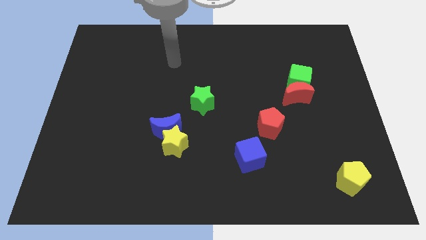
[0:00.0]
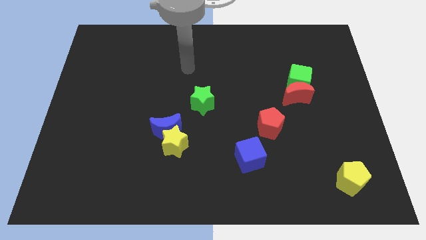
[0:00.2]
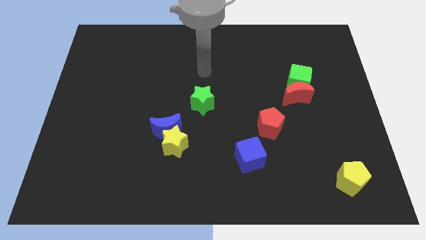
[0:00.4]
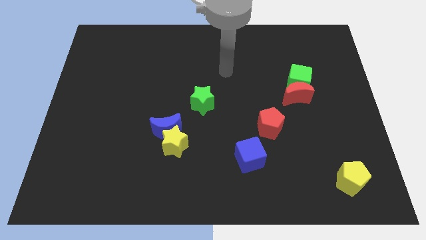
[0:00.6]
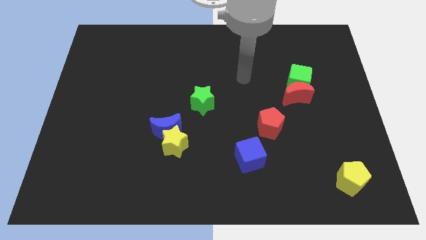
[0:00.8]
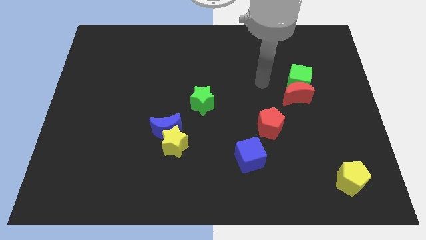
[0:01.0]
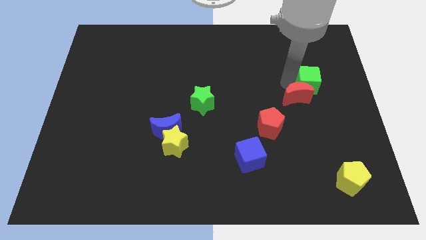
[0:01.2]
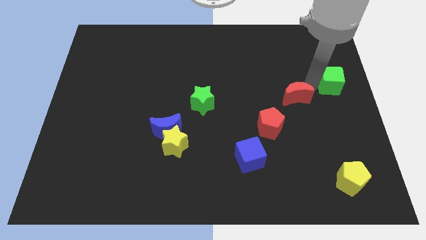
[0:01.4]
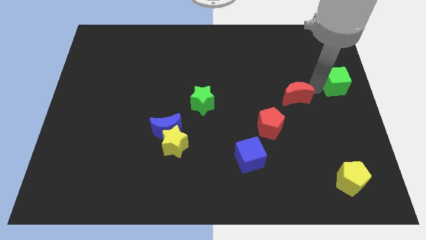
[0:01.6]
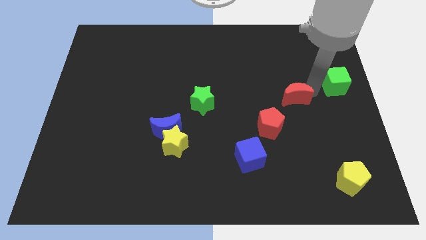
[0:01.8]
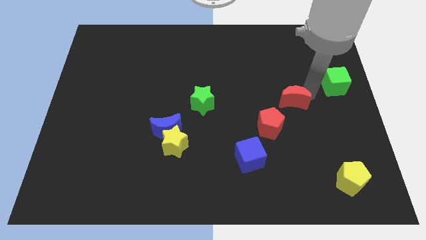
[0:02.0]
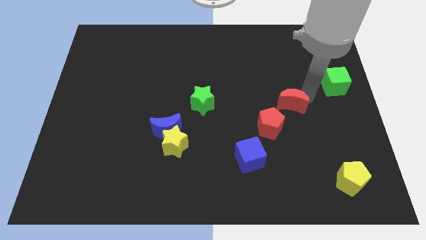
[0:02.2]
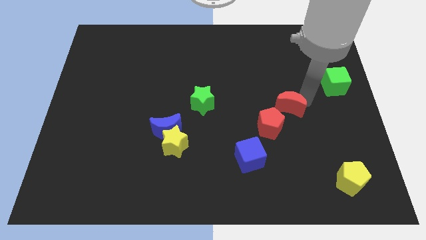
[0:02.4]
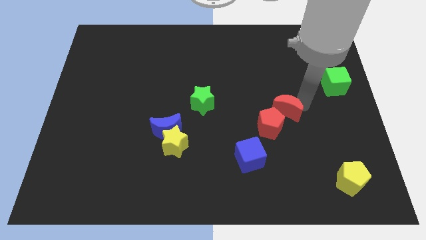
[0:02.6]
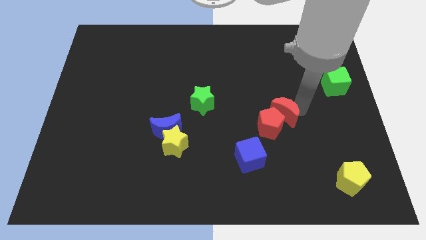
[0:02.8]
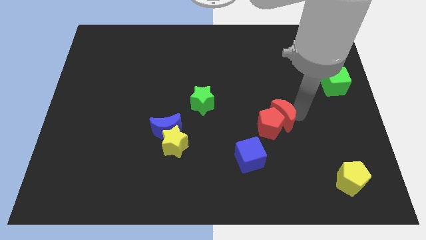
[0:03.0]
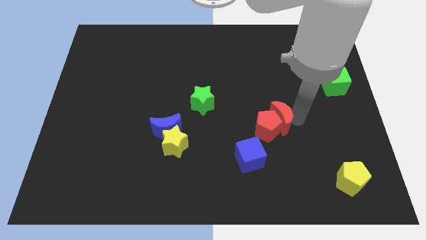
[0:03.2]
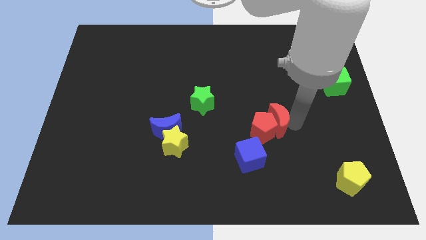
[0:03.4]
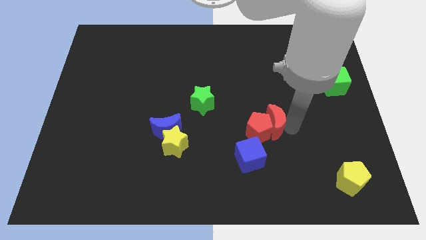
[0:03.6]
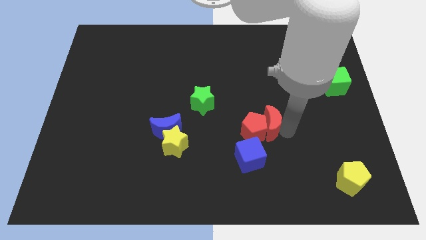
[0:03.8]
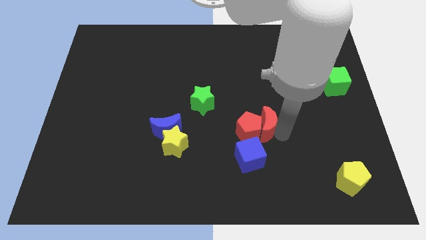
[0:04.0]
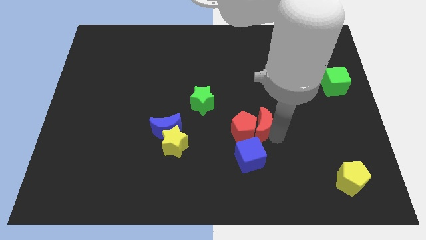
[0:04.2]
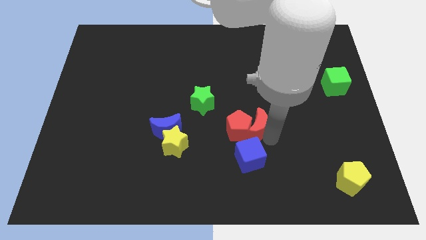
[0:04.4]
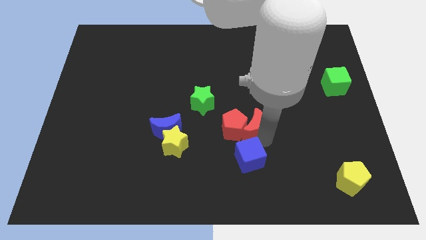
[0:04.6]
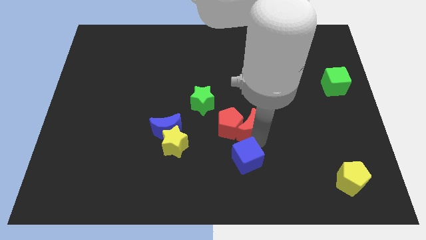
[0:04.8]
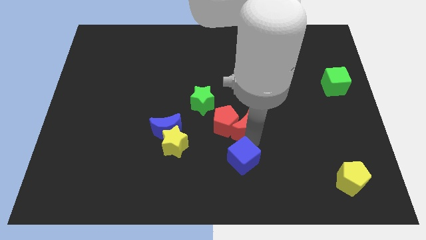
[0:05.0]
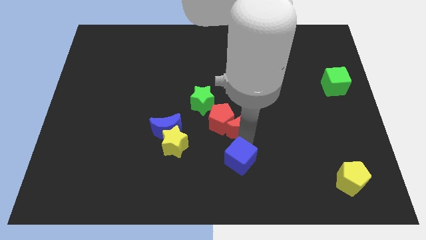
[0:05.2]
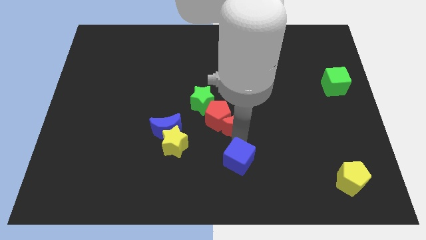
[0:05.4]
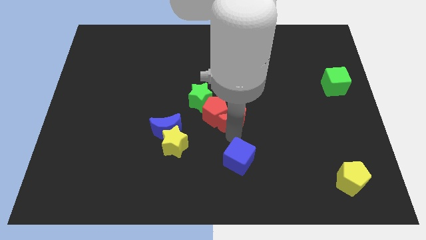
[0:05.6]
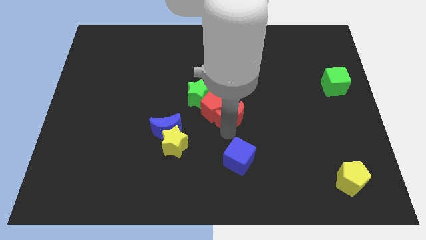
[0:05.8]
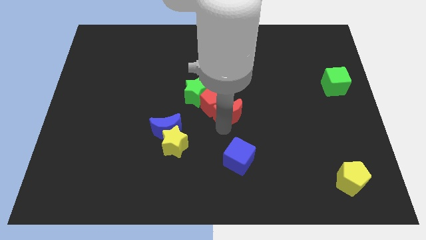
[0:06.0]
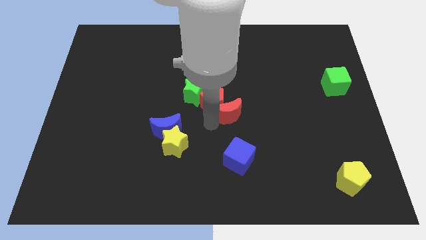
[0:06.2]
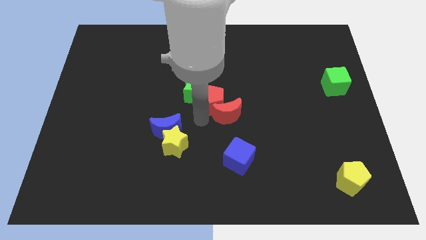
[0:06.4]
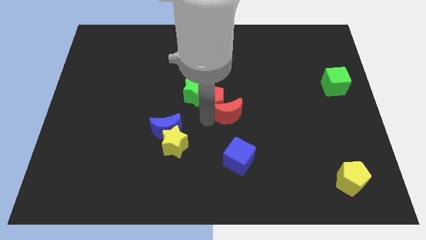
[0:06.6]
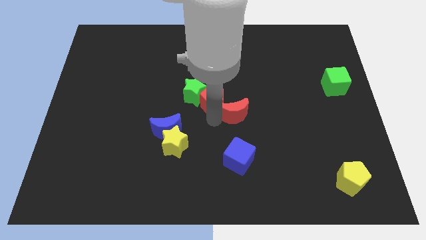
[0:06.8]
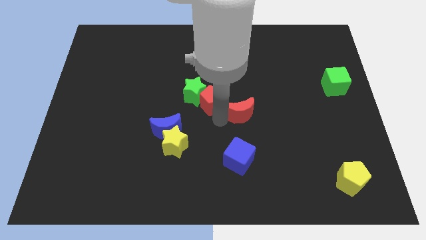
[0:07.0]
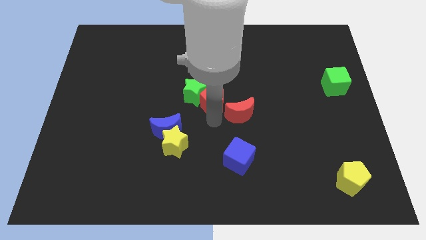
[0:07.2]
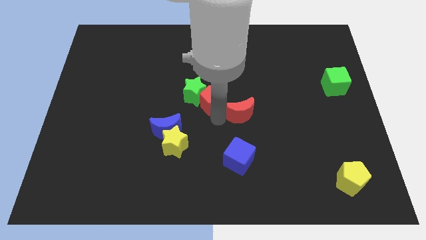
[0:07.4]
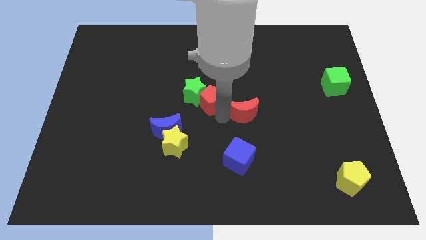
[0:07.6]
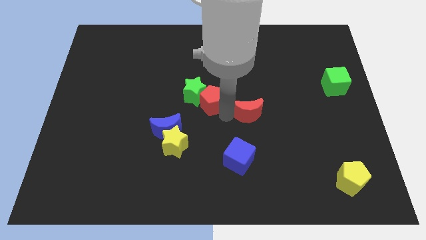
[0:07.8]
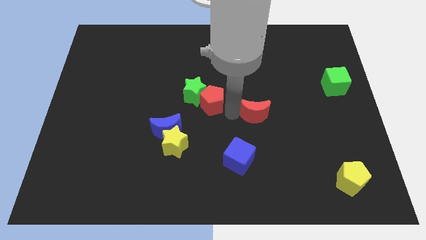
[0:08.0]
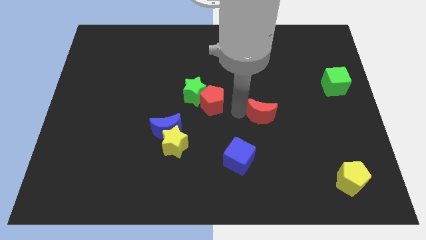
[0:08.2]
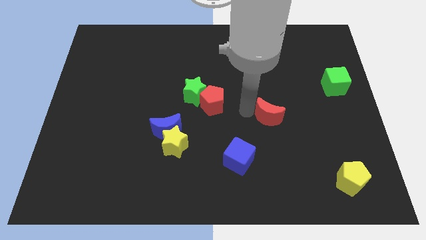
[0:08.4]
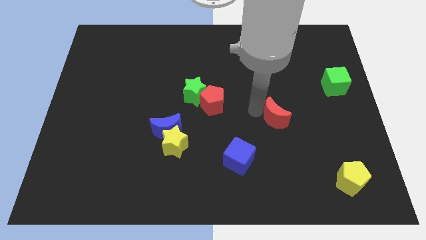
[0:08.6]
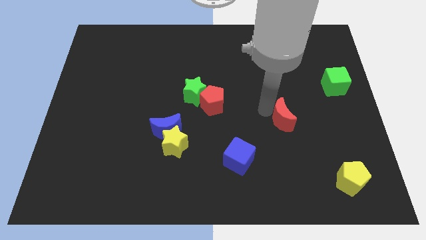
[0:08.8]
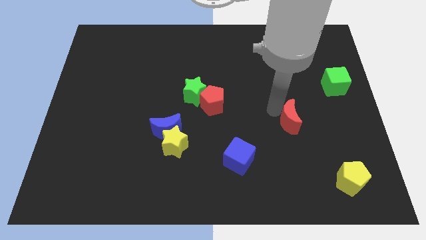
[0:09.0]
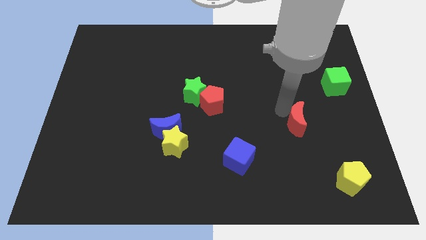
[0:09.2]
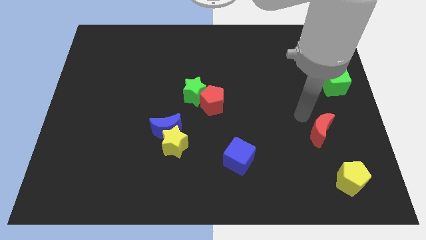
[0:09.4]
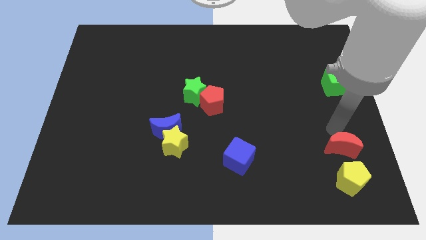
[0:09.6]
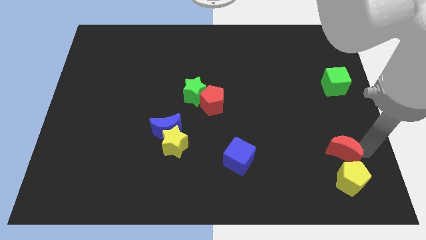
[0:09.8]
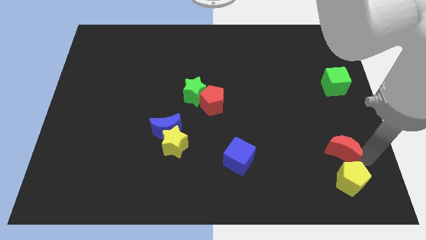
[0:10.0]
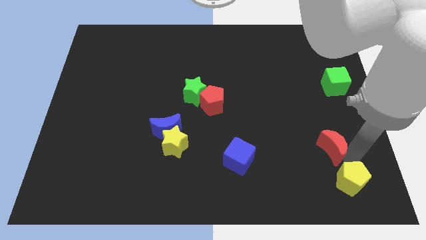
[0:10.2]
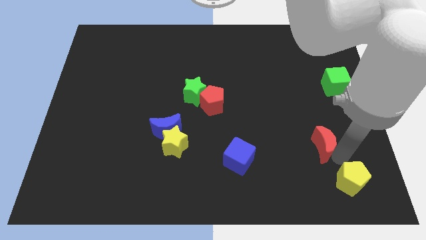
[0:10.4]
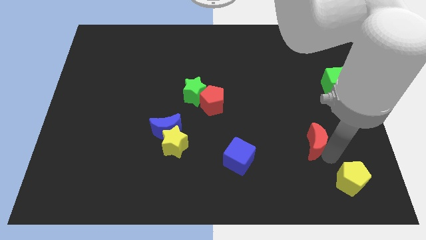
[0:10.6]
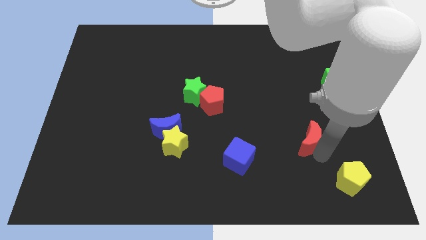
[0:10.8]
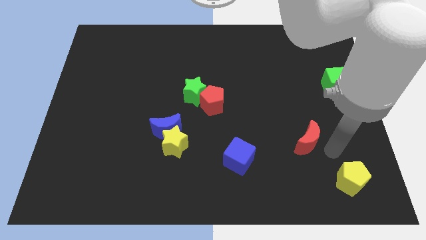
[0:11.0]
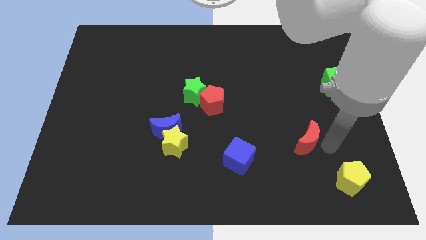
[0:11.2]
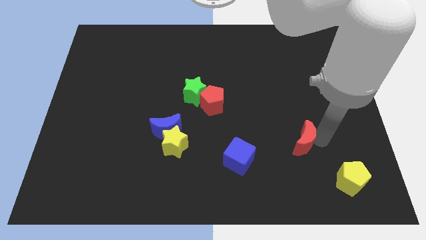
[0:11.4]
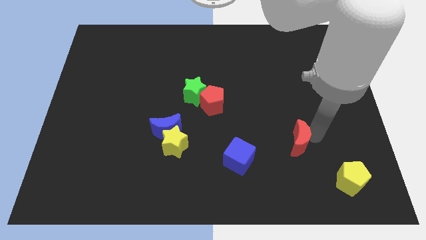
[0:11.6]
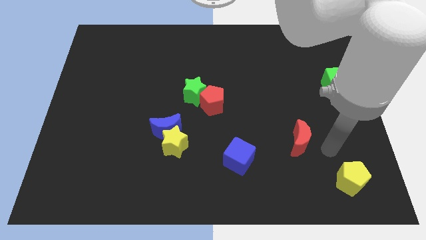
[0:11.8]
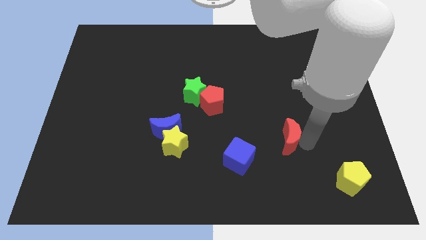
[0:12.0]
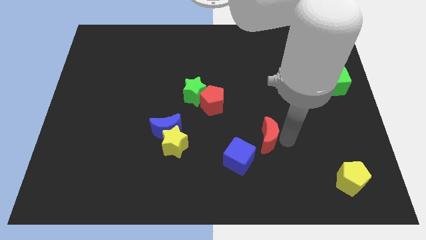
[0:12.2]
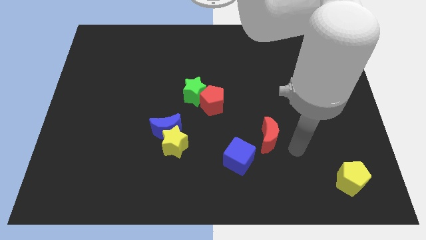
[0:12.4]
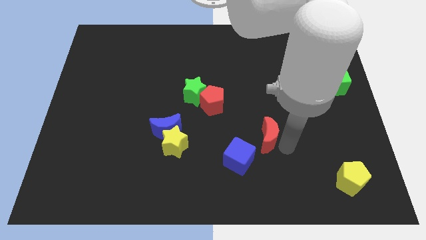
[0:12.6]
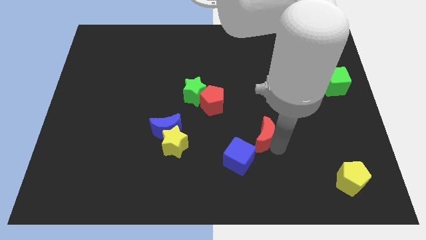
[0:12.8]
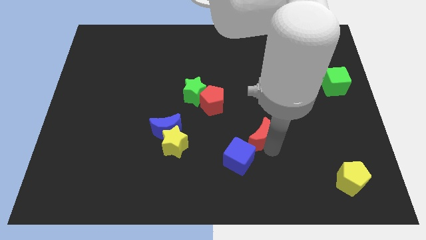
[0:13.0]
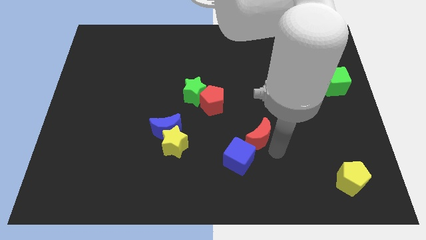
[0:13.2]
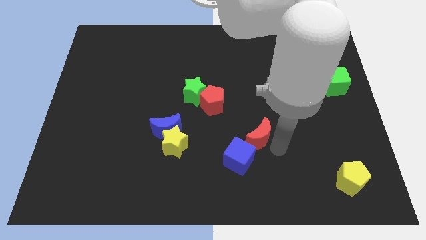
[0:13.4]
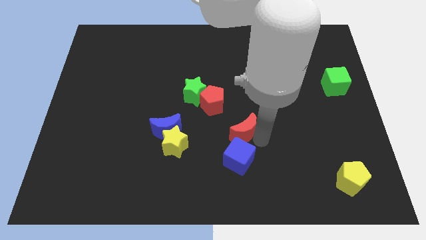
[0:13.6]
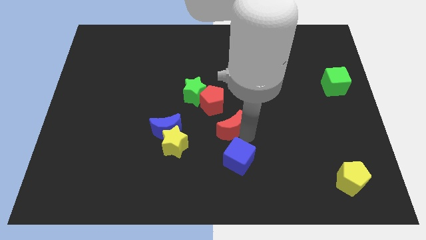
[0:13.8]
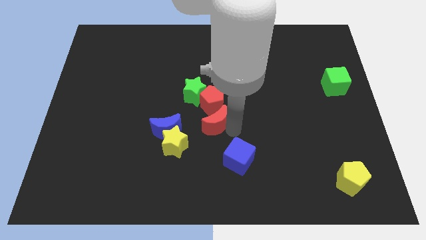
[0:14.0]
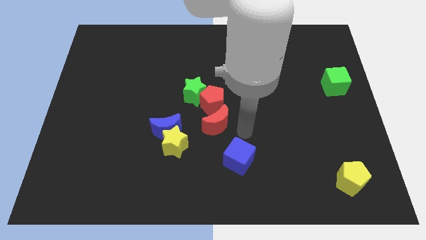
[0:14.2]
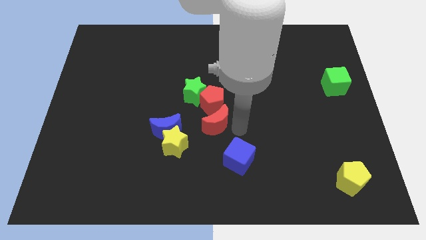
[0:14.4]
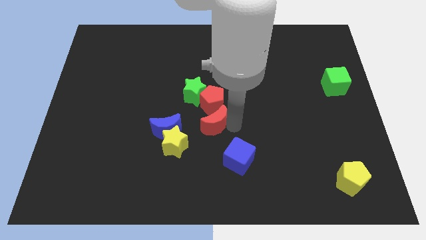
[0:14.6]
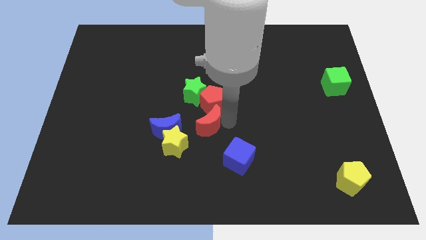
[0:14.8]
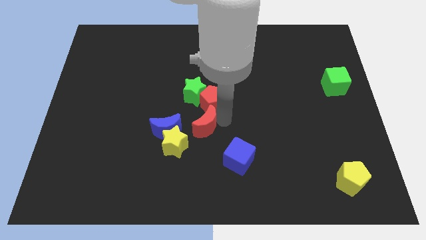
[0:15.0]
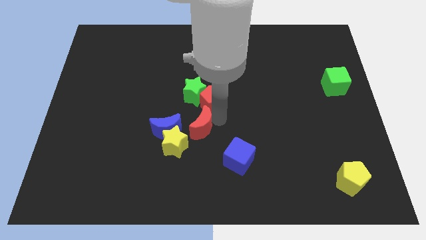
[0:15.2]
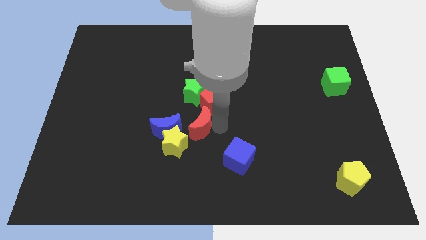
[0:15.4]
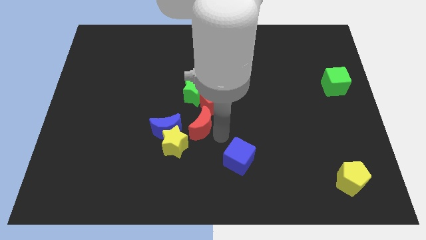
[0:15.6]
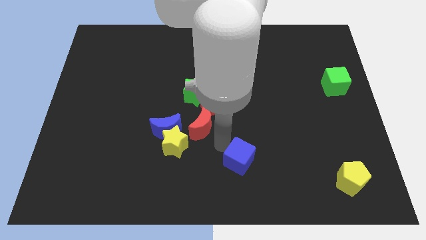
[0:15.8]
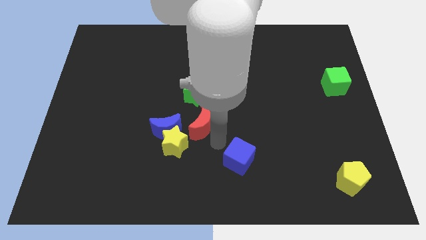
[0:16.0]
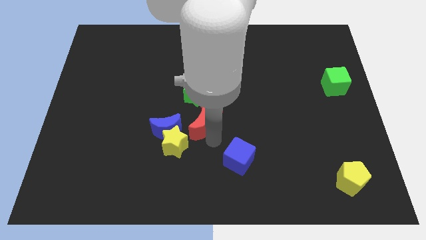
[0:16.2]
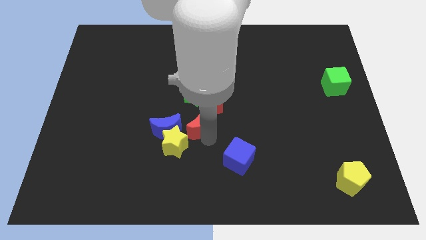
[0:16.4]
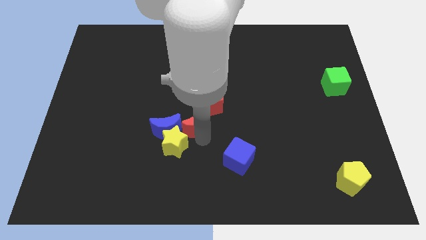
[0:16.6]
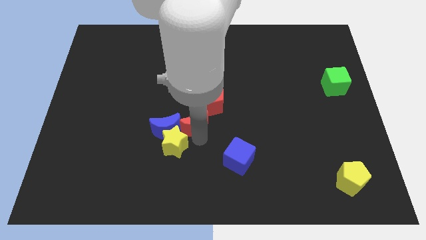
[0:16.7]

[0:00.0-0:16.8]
push the red moon above the yellow star
